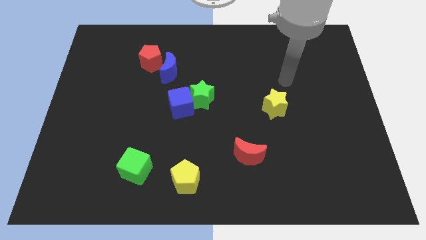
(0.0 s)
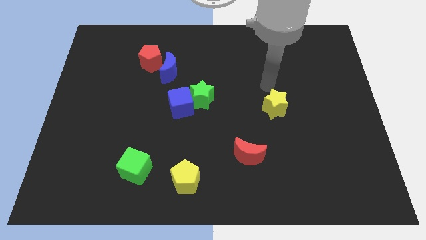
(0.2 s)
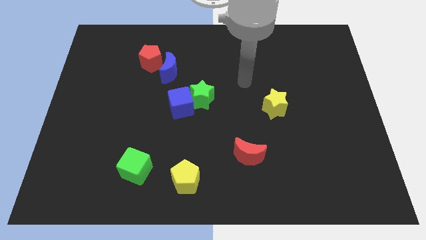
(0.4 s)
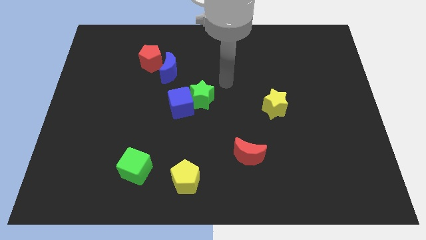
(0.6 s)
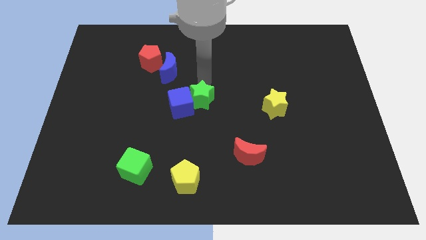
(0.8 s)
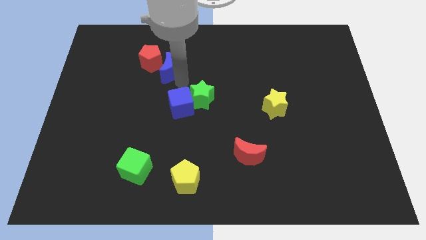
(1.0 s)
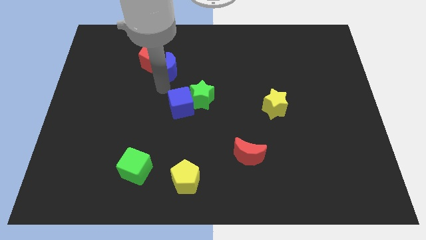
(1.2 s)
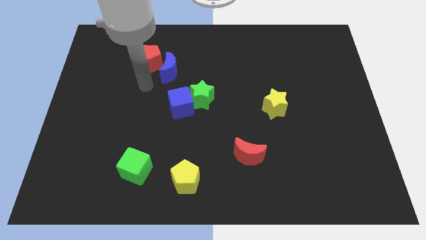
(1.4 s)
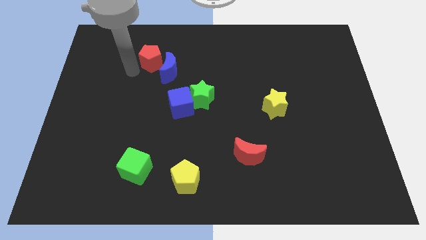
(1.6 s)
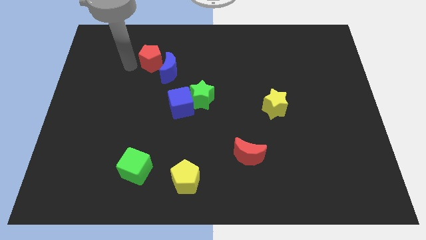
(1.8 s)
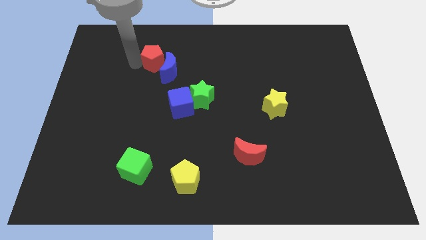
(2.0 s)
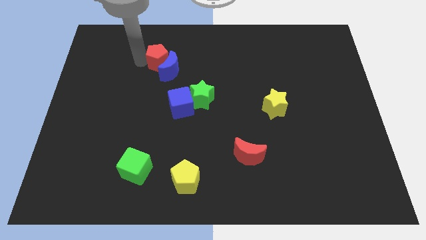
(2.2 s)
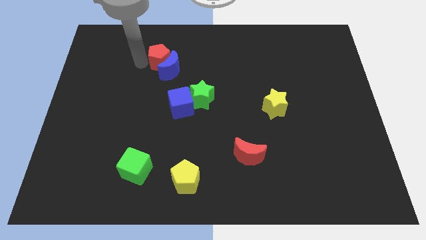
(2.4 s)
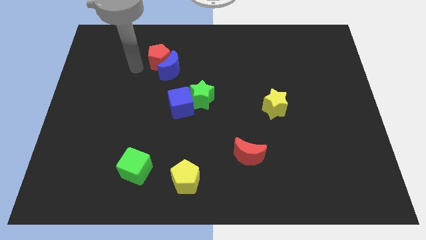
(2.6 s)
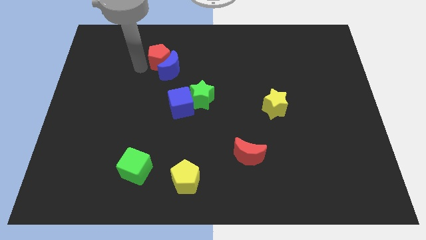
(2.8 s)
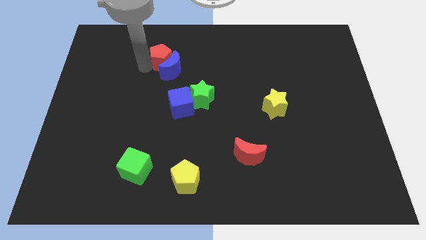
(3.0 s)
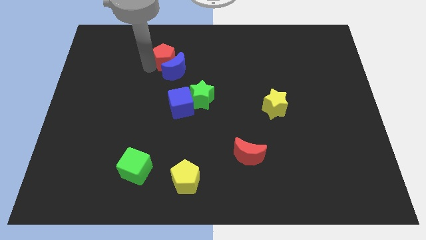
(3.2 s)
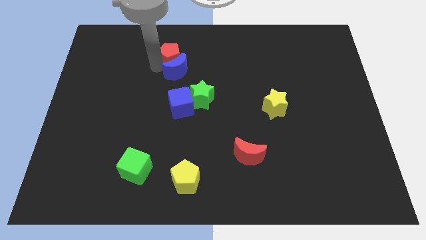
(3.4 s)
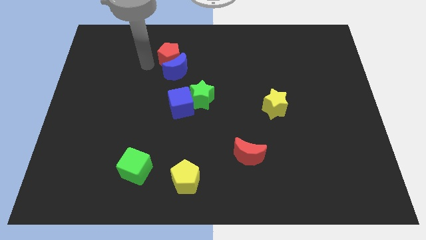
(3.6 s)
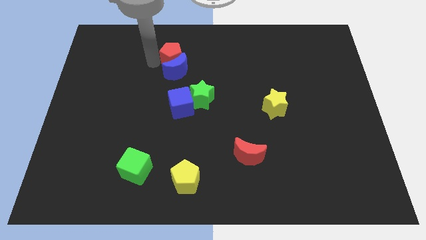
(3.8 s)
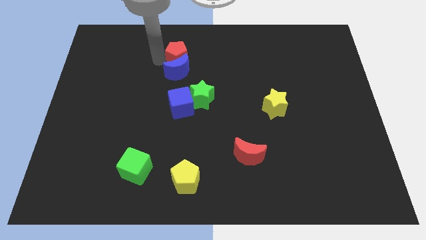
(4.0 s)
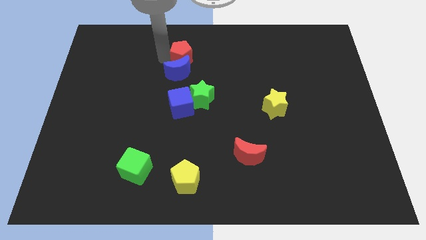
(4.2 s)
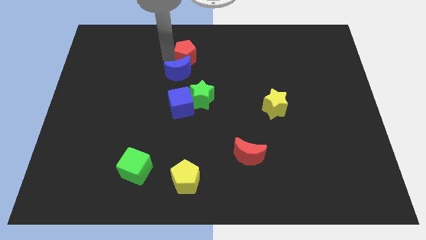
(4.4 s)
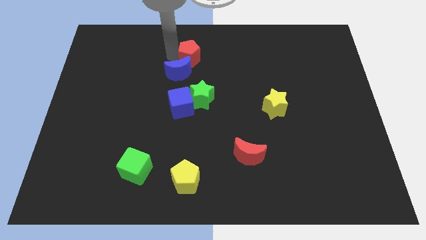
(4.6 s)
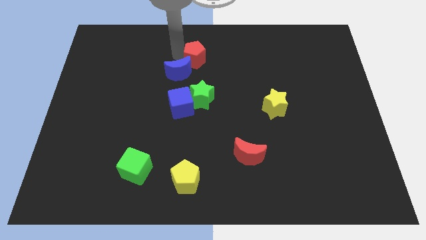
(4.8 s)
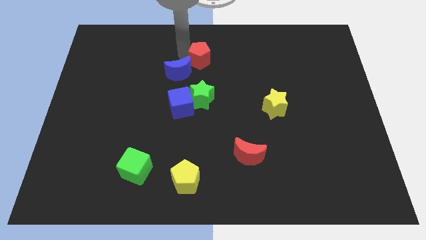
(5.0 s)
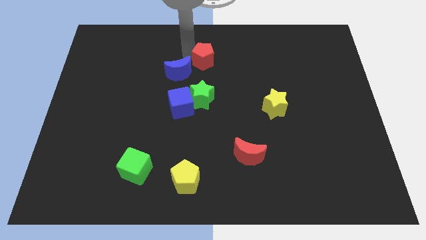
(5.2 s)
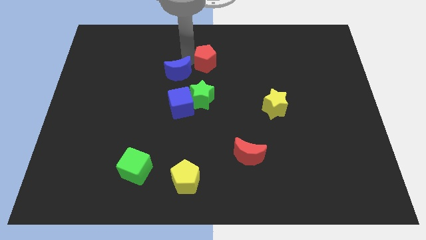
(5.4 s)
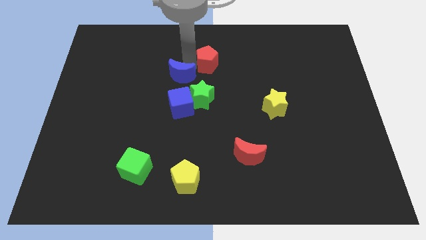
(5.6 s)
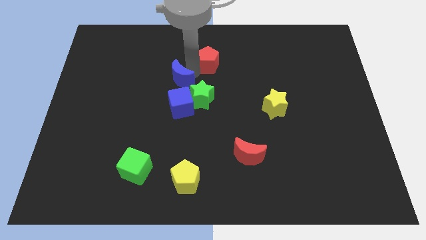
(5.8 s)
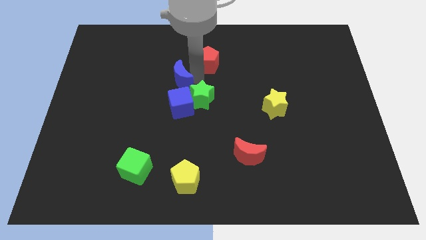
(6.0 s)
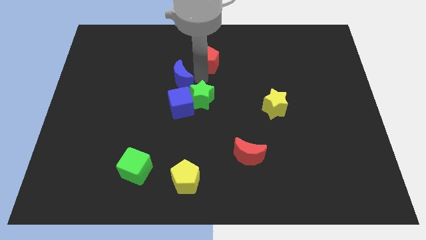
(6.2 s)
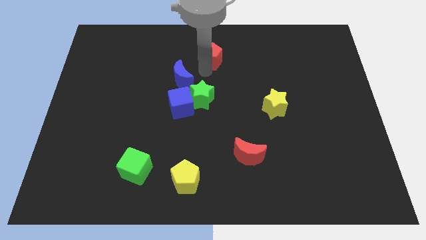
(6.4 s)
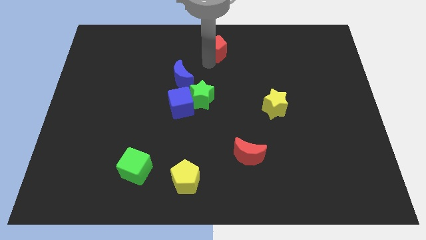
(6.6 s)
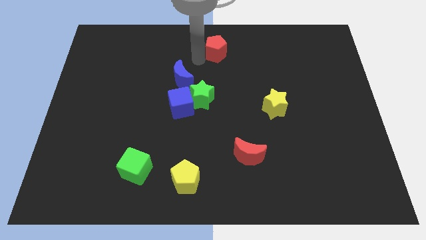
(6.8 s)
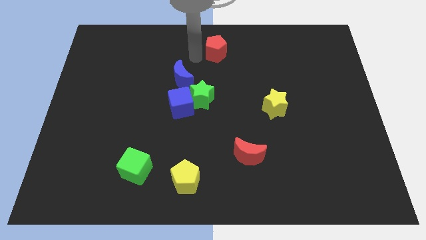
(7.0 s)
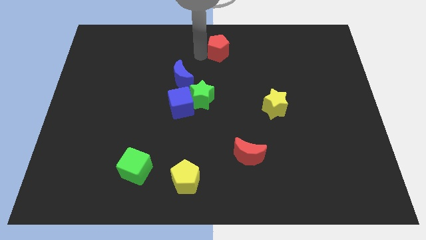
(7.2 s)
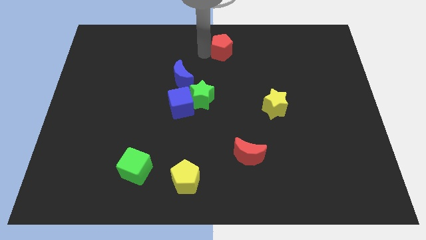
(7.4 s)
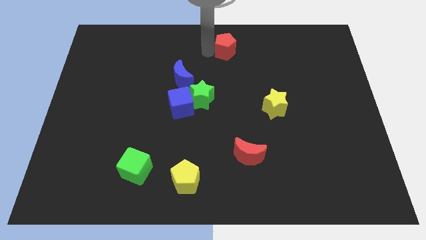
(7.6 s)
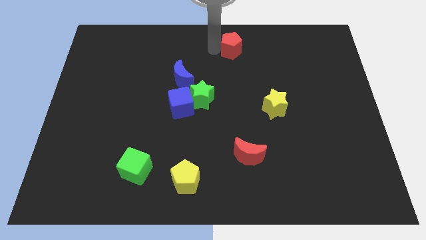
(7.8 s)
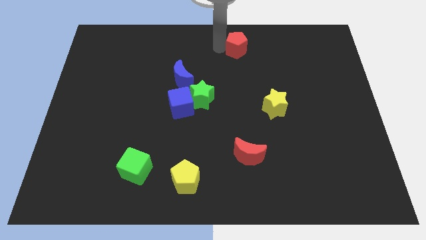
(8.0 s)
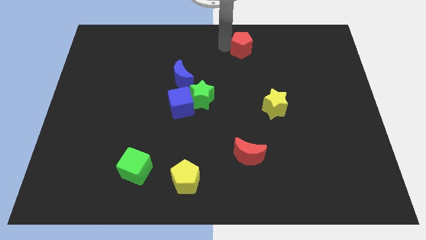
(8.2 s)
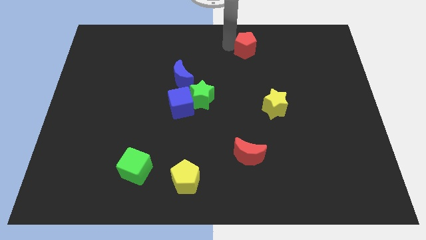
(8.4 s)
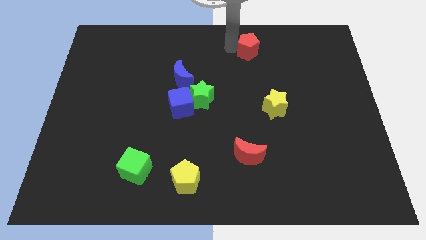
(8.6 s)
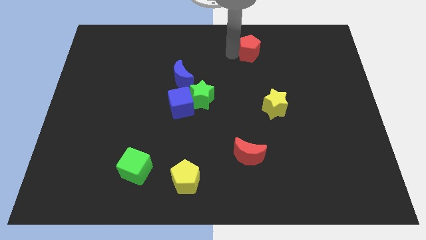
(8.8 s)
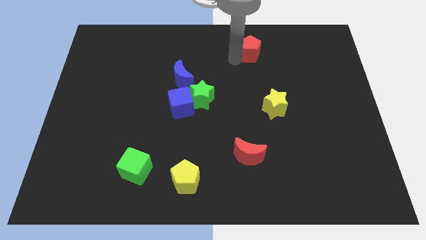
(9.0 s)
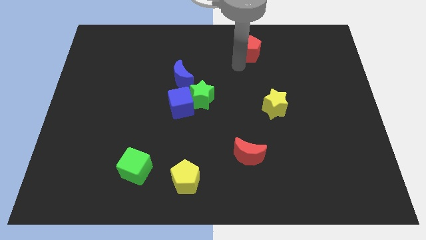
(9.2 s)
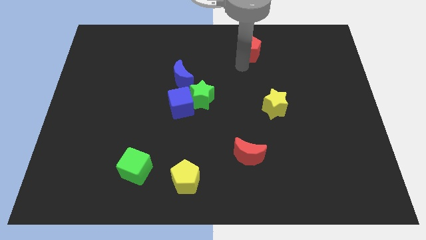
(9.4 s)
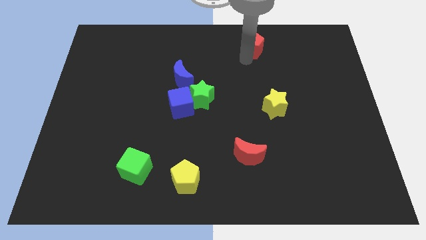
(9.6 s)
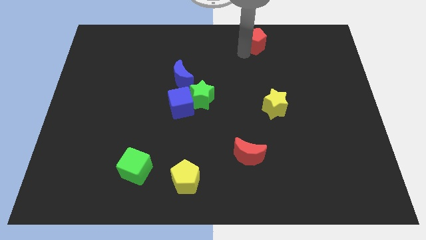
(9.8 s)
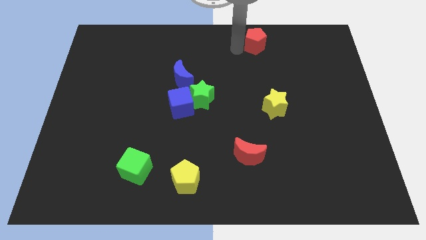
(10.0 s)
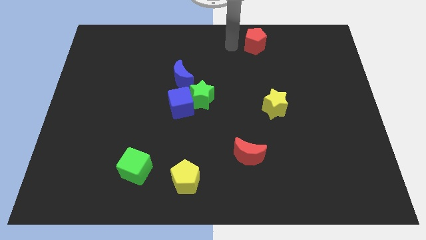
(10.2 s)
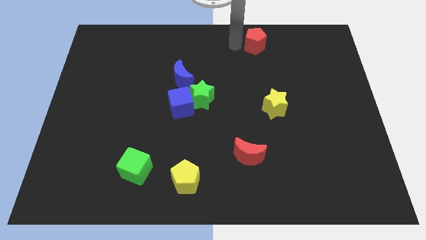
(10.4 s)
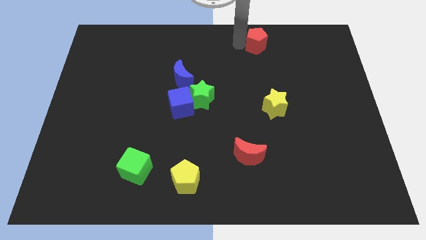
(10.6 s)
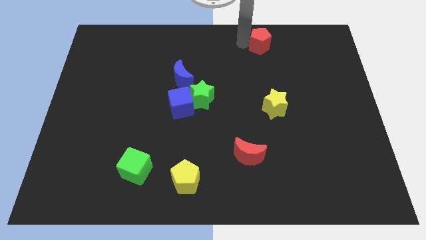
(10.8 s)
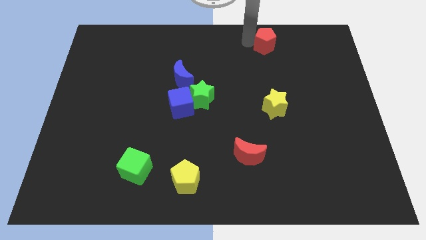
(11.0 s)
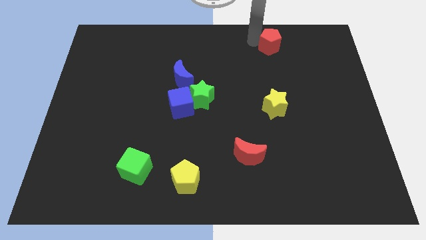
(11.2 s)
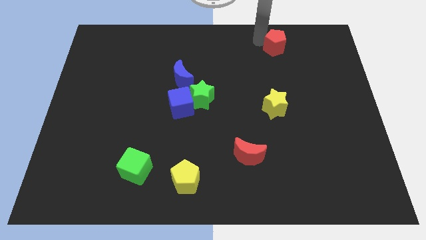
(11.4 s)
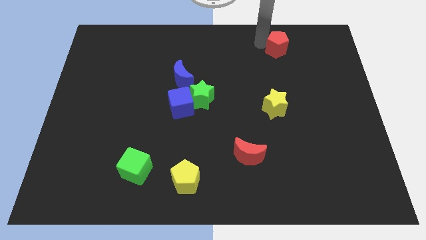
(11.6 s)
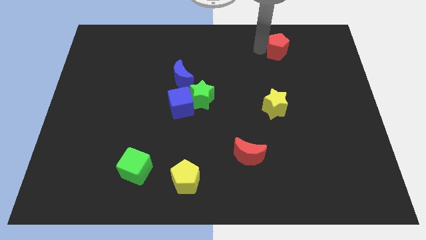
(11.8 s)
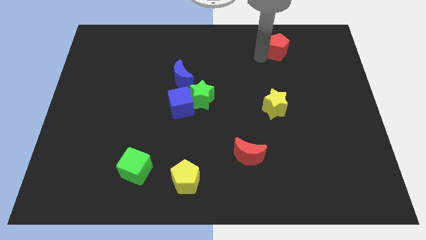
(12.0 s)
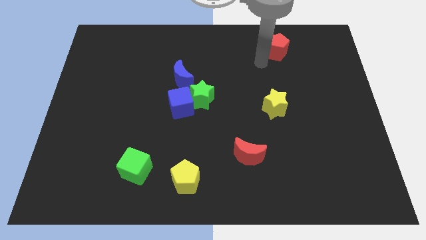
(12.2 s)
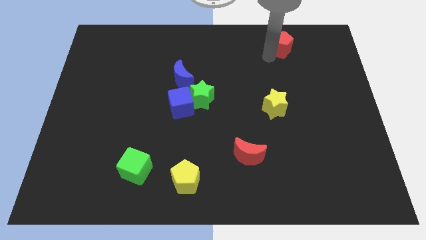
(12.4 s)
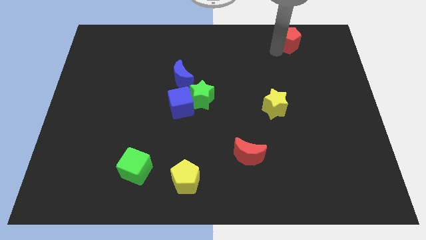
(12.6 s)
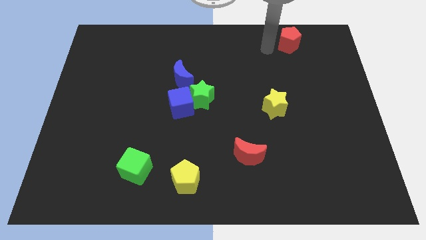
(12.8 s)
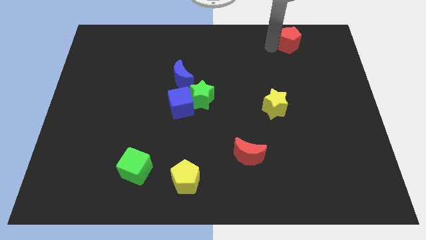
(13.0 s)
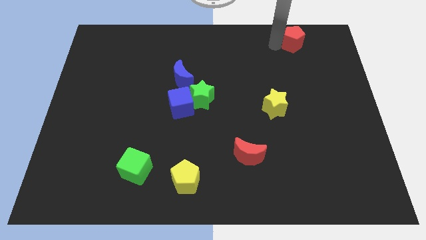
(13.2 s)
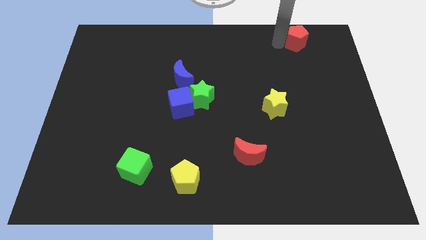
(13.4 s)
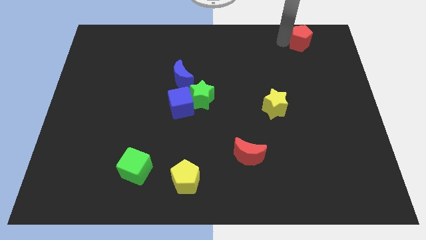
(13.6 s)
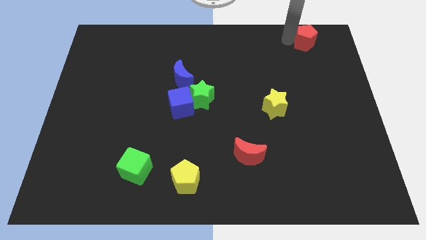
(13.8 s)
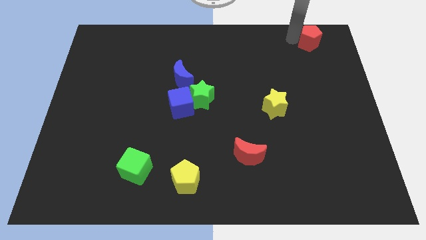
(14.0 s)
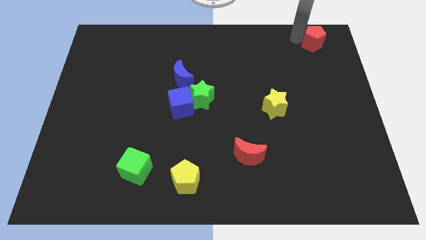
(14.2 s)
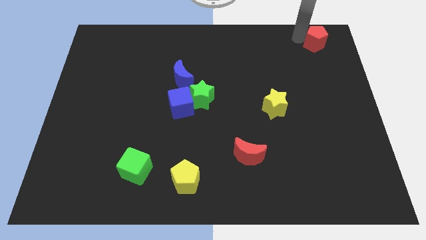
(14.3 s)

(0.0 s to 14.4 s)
move the red pentagon to the top right corner
